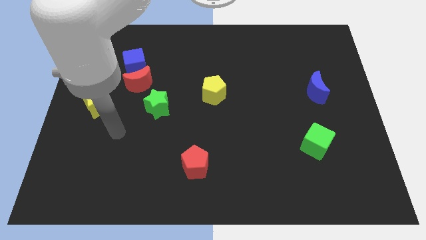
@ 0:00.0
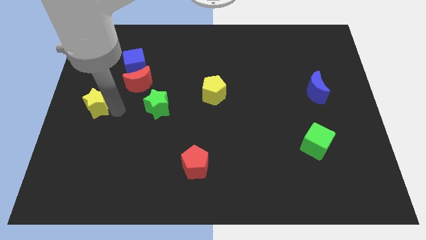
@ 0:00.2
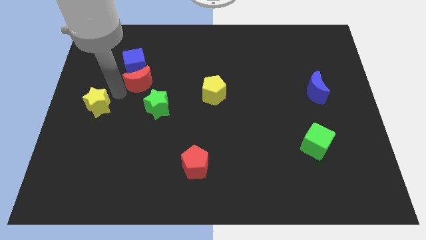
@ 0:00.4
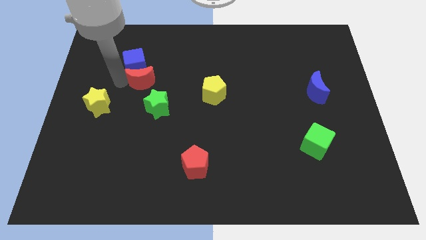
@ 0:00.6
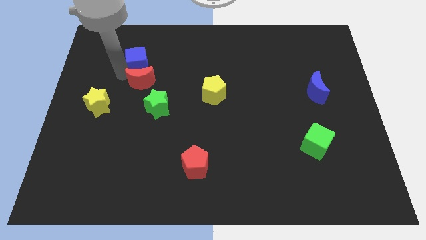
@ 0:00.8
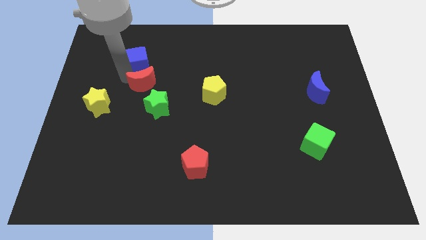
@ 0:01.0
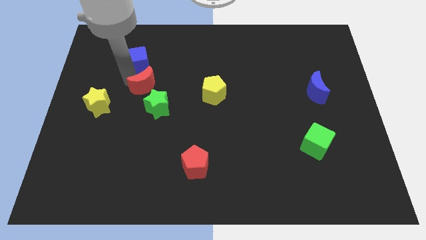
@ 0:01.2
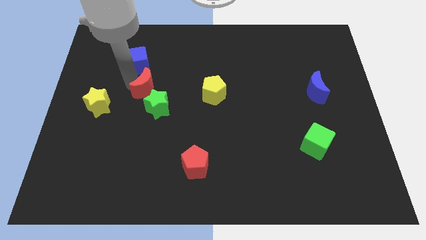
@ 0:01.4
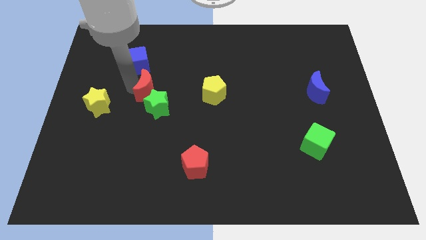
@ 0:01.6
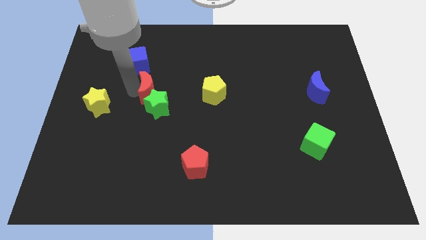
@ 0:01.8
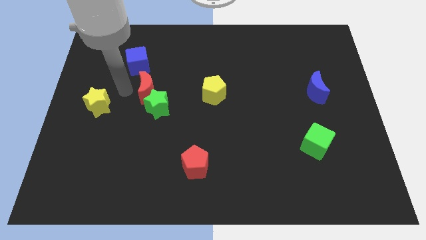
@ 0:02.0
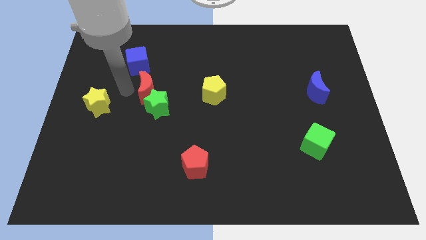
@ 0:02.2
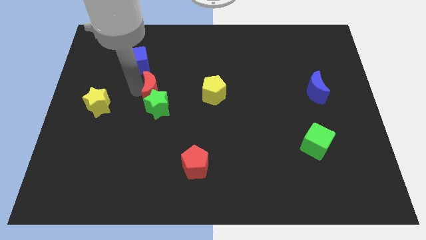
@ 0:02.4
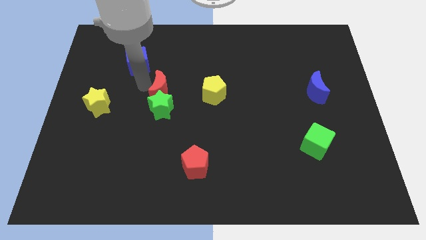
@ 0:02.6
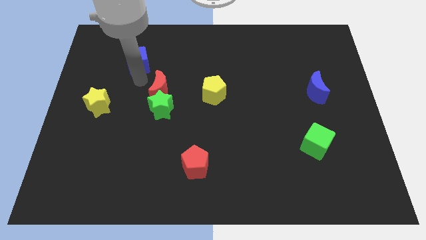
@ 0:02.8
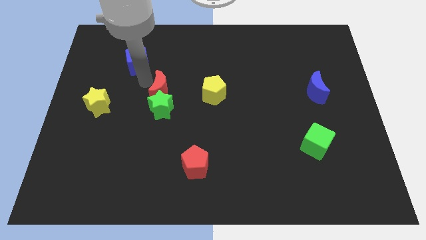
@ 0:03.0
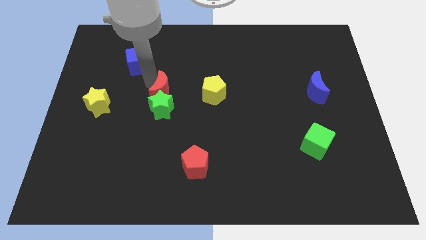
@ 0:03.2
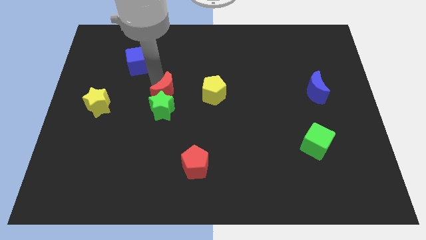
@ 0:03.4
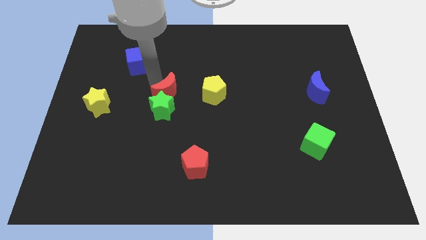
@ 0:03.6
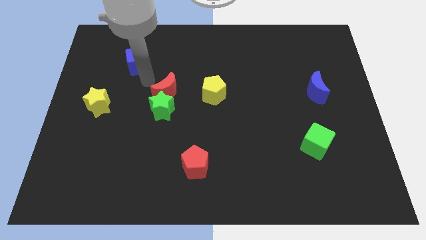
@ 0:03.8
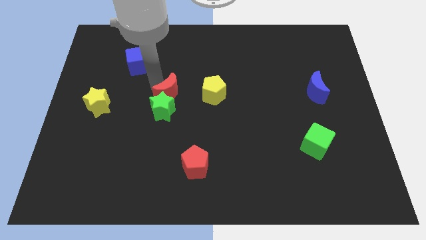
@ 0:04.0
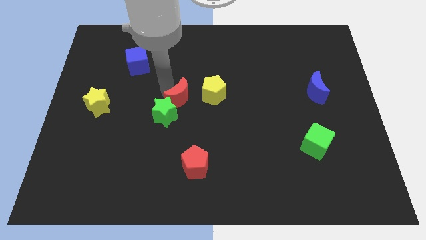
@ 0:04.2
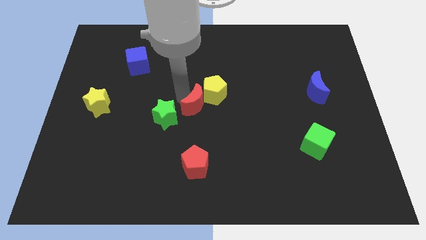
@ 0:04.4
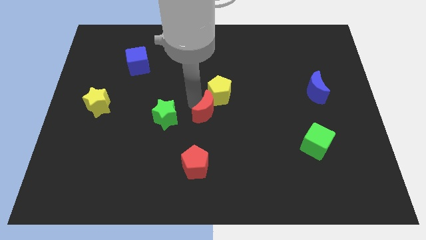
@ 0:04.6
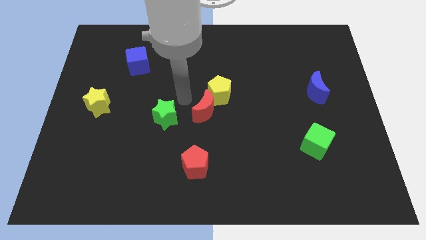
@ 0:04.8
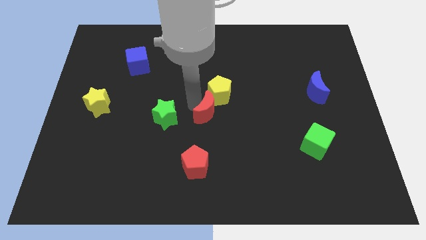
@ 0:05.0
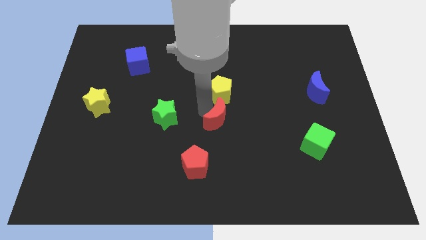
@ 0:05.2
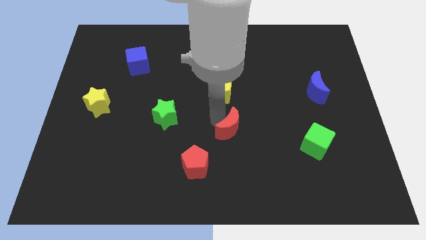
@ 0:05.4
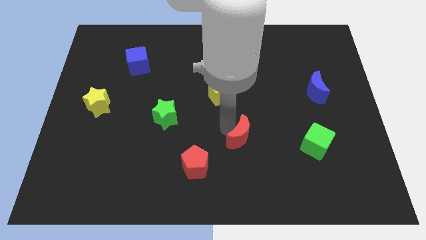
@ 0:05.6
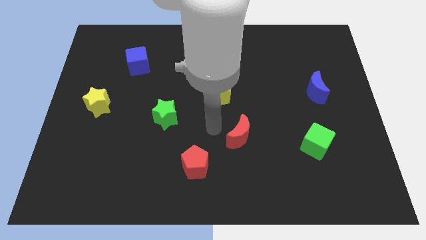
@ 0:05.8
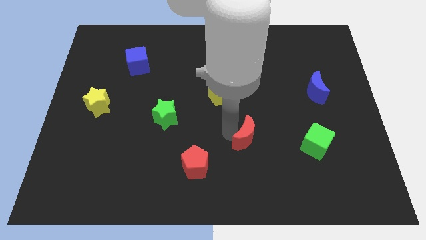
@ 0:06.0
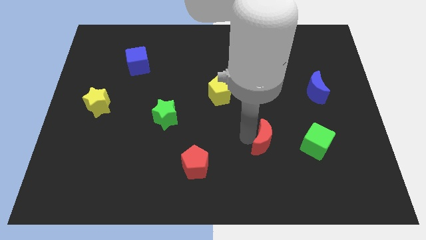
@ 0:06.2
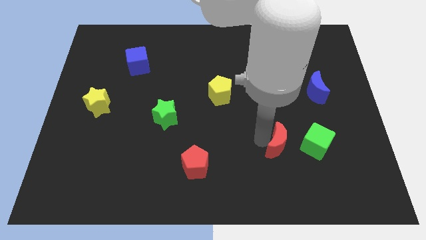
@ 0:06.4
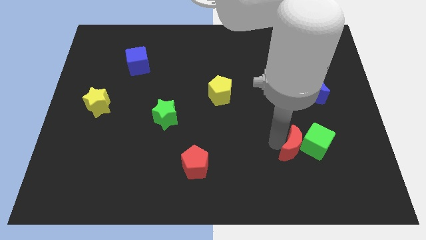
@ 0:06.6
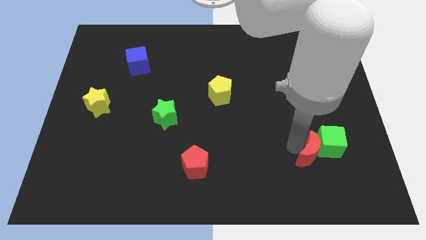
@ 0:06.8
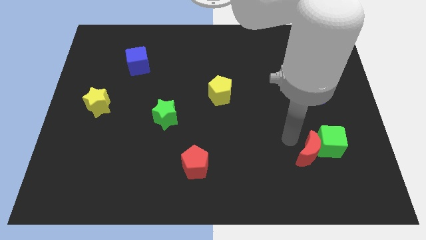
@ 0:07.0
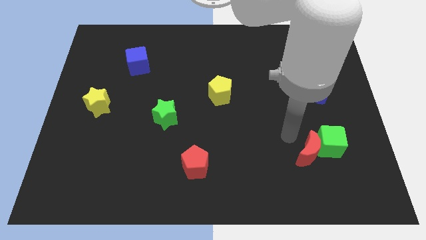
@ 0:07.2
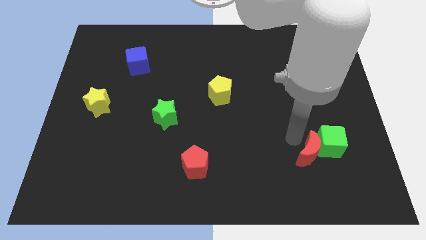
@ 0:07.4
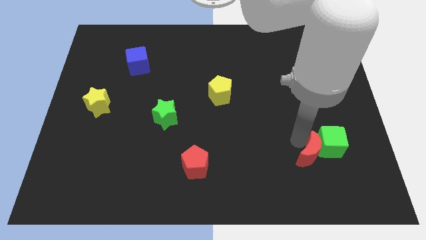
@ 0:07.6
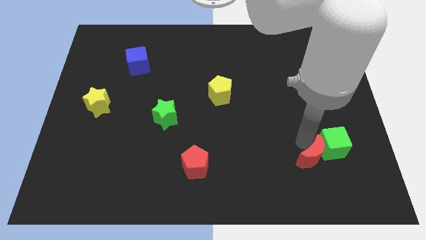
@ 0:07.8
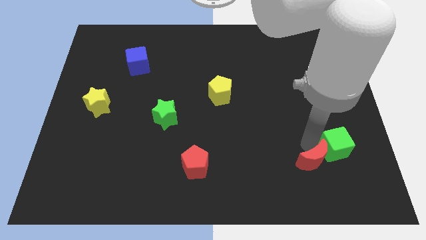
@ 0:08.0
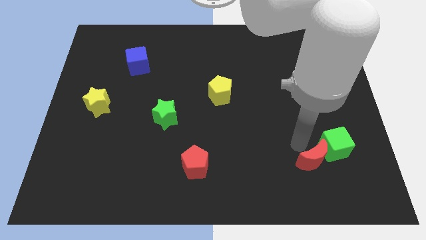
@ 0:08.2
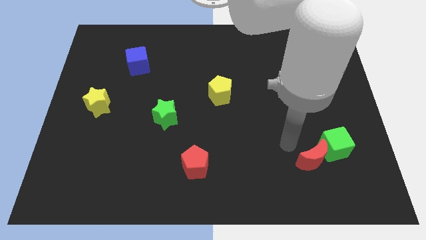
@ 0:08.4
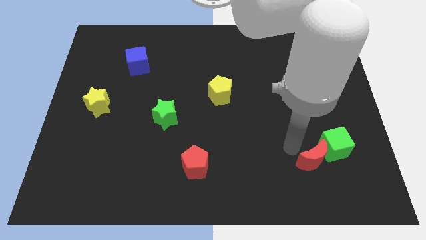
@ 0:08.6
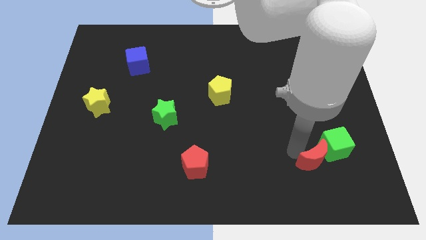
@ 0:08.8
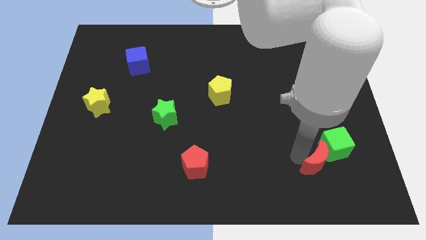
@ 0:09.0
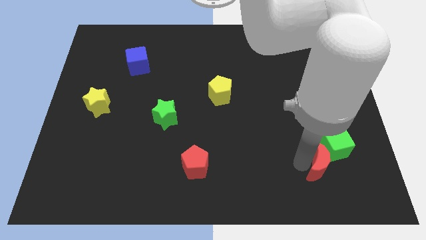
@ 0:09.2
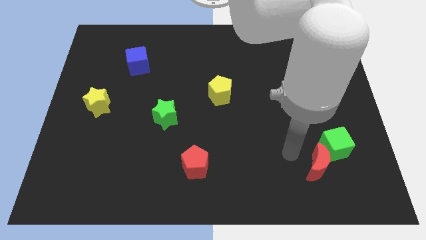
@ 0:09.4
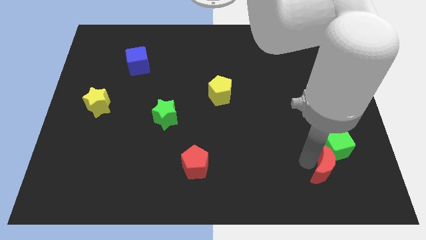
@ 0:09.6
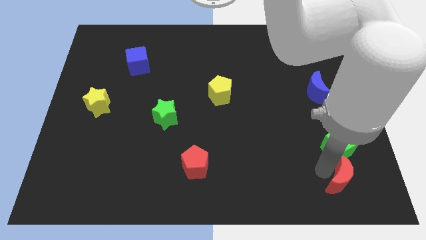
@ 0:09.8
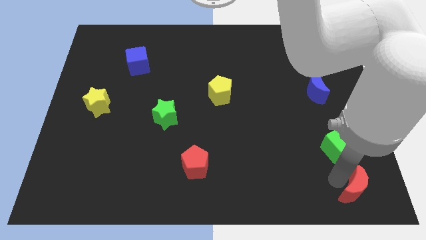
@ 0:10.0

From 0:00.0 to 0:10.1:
move the red moon to the lower right corner
